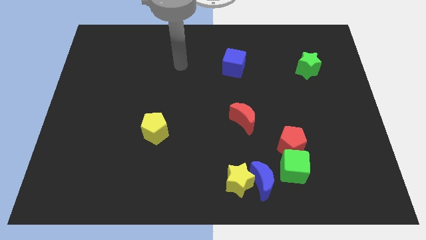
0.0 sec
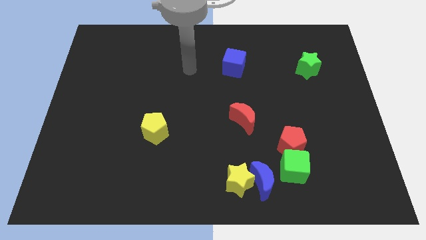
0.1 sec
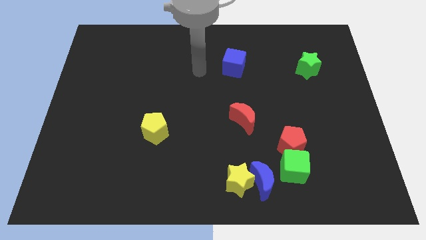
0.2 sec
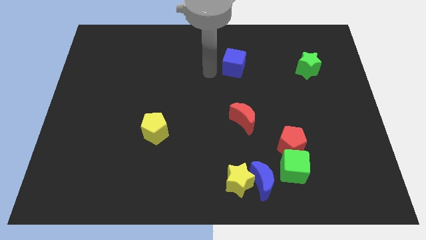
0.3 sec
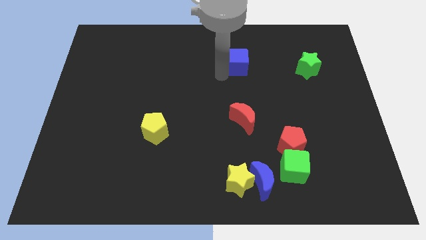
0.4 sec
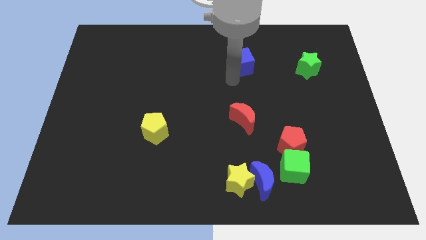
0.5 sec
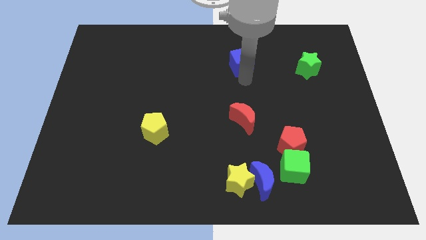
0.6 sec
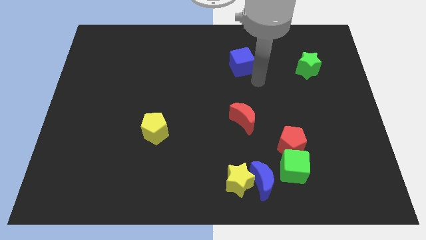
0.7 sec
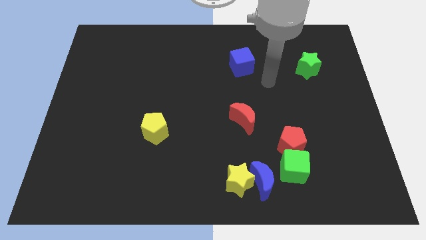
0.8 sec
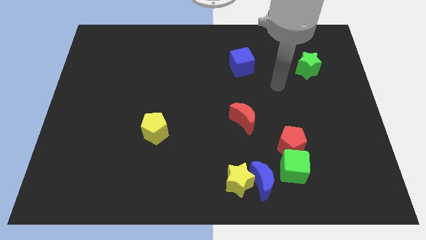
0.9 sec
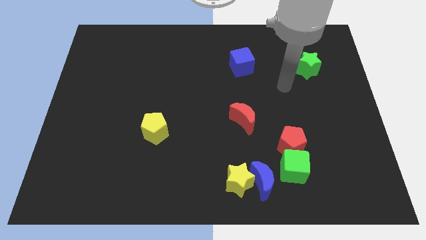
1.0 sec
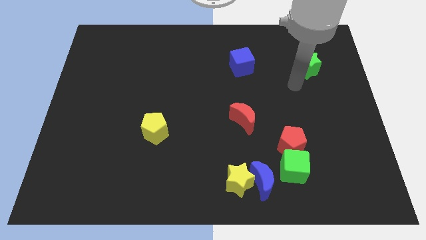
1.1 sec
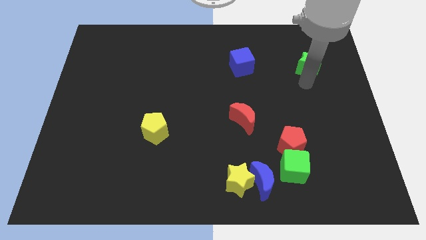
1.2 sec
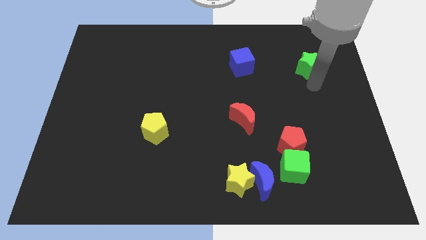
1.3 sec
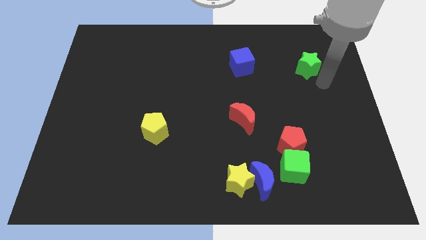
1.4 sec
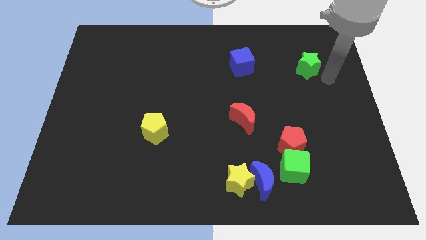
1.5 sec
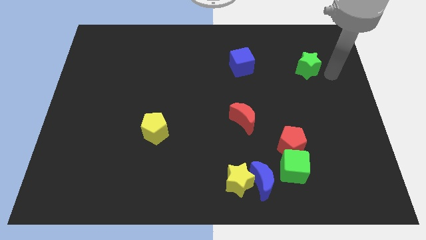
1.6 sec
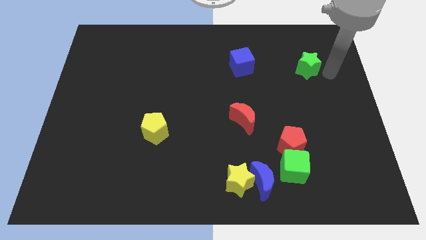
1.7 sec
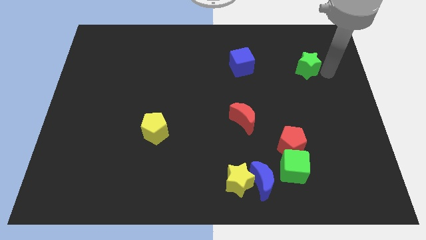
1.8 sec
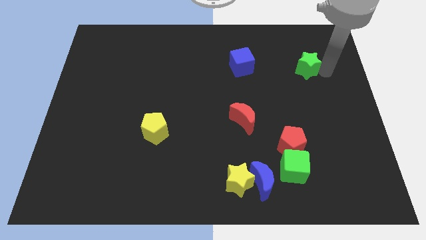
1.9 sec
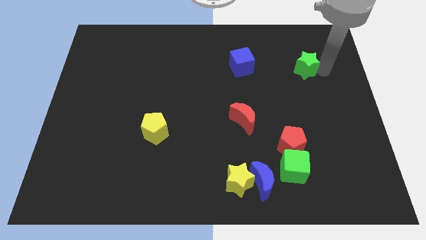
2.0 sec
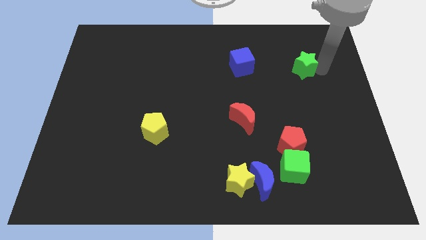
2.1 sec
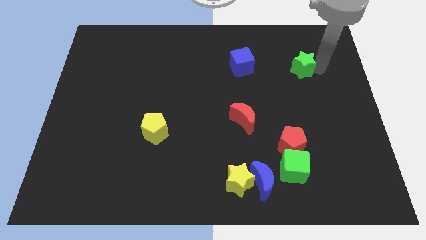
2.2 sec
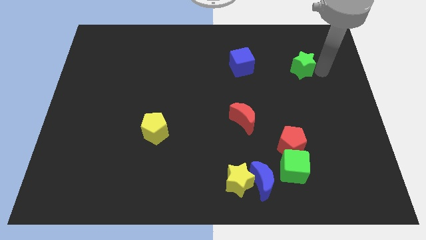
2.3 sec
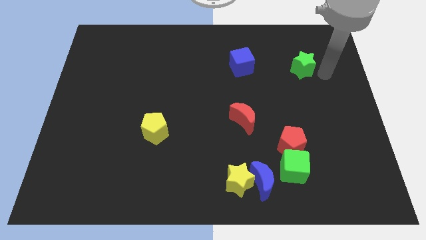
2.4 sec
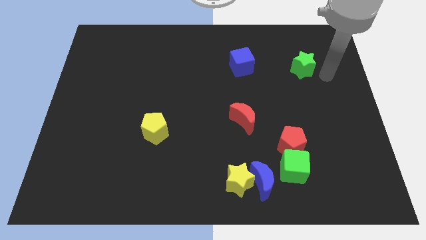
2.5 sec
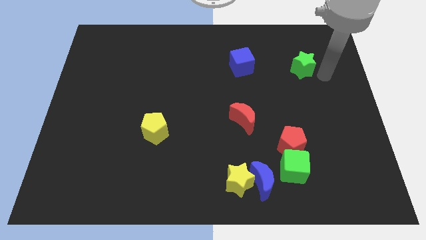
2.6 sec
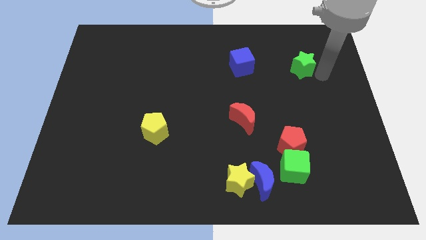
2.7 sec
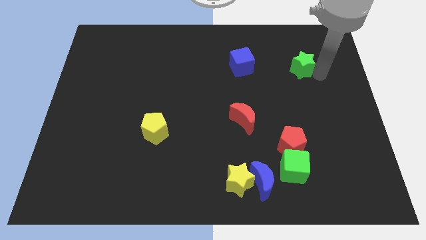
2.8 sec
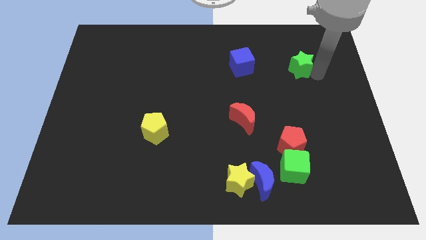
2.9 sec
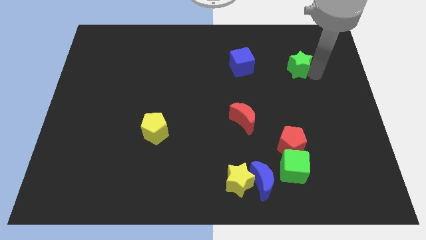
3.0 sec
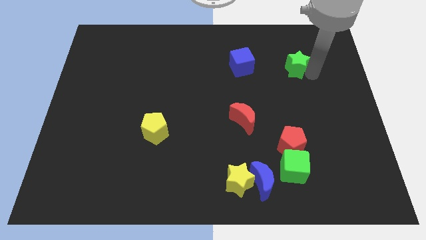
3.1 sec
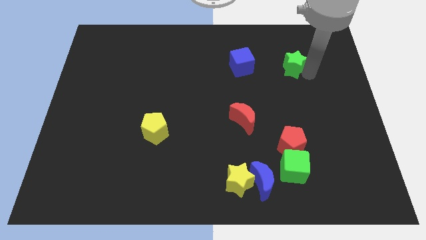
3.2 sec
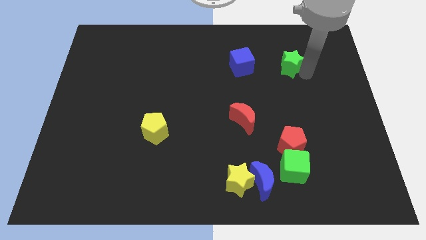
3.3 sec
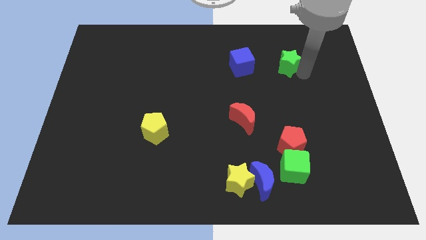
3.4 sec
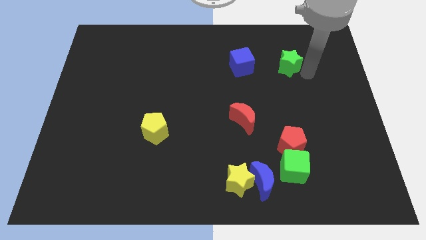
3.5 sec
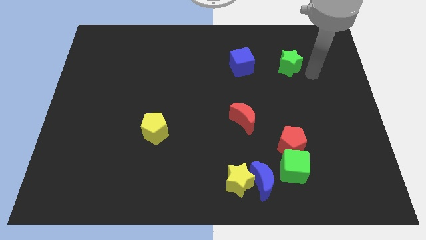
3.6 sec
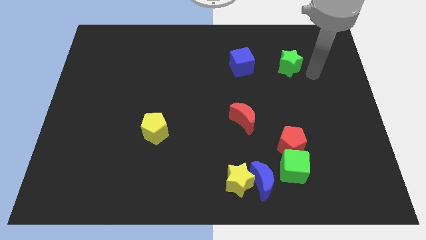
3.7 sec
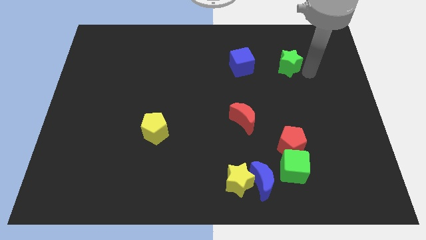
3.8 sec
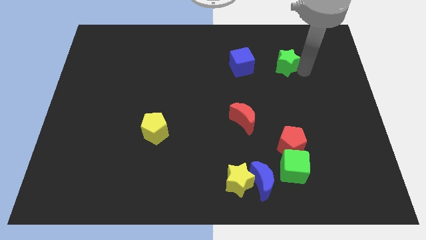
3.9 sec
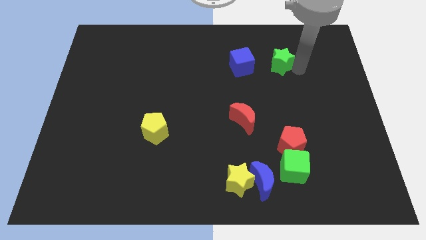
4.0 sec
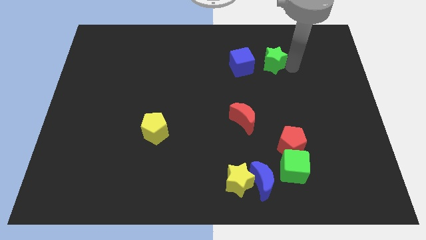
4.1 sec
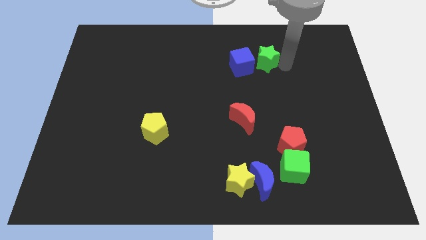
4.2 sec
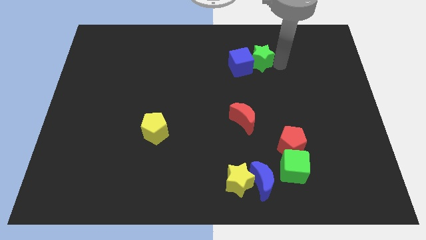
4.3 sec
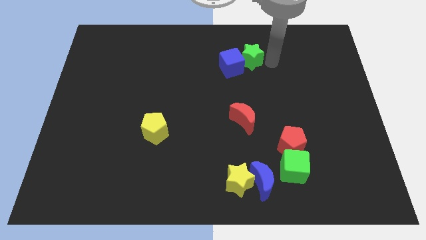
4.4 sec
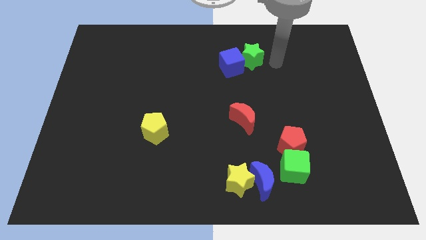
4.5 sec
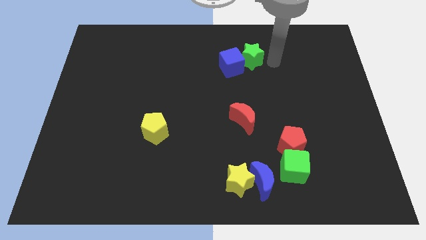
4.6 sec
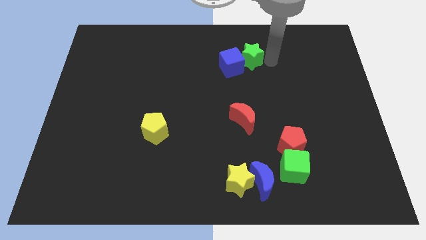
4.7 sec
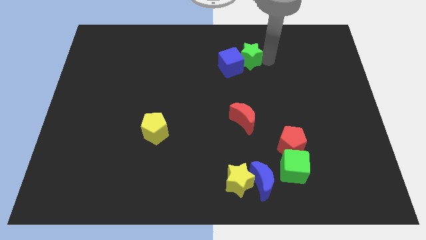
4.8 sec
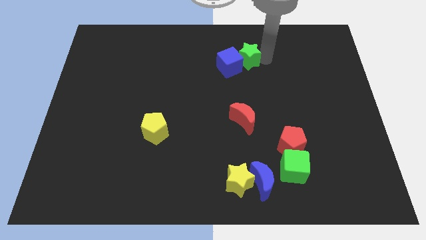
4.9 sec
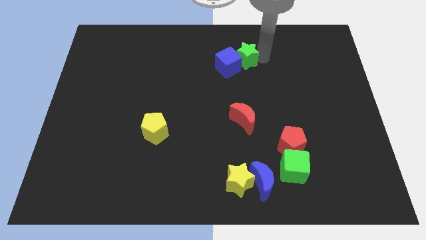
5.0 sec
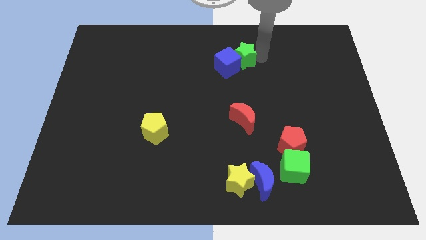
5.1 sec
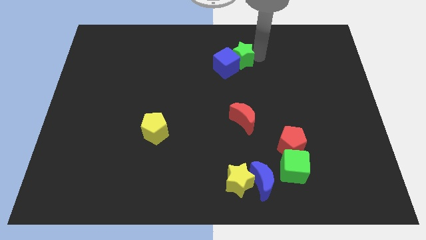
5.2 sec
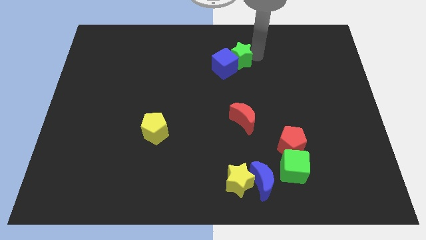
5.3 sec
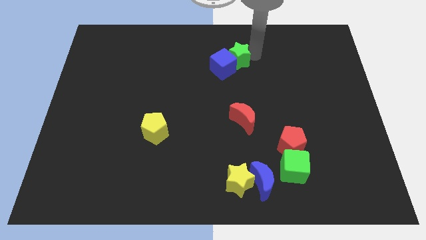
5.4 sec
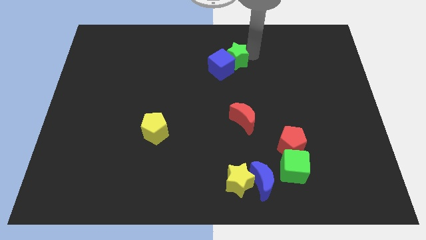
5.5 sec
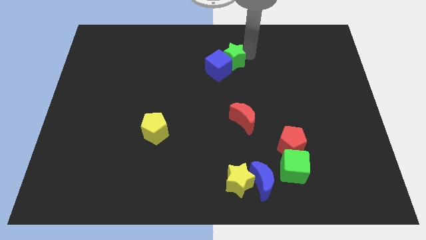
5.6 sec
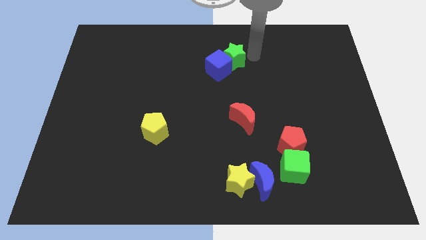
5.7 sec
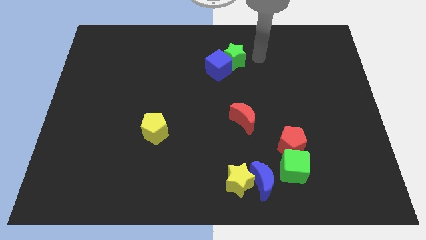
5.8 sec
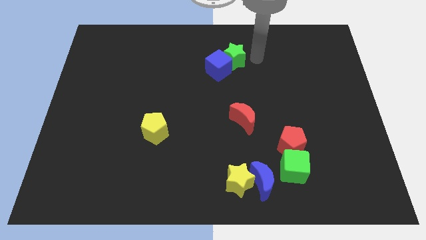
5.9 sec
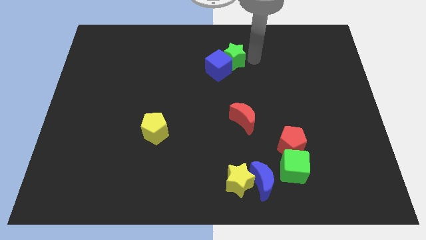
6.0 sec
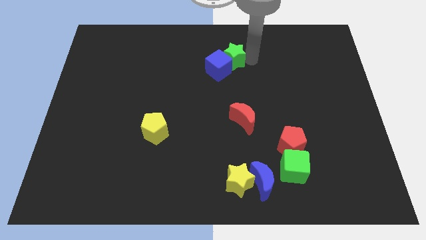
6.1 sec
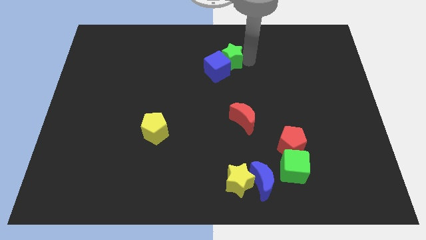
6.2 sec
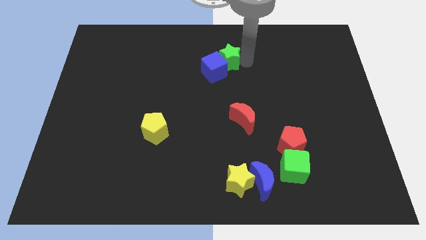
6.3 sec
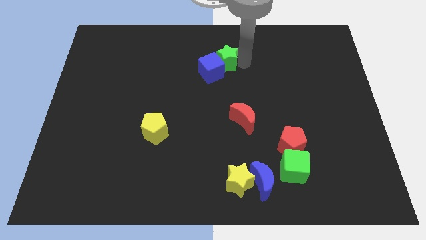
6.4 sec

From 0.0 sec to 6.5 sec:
push the green star to the left

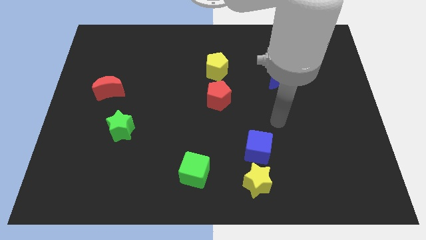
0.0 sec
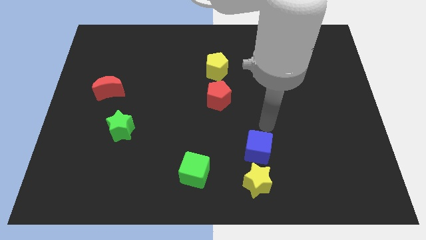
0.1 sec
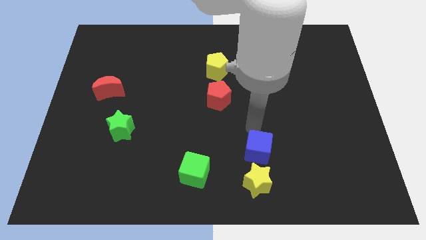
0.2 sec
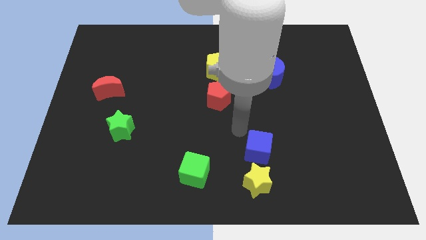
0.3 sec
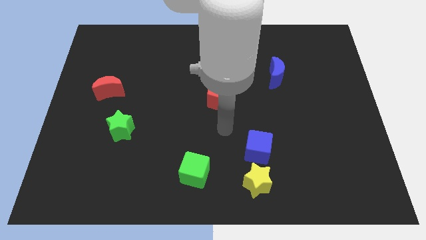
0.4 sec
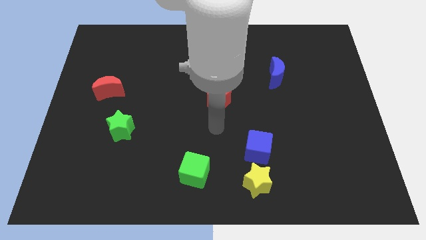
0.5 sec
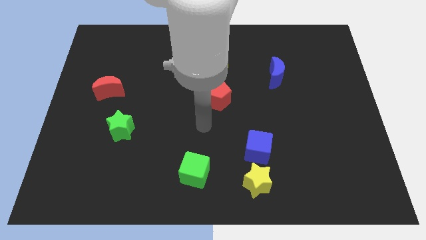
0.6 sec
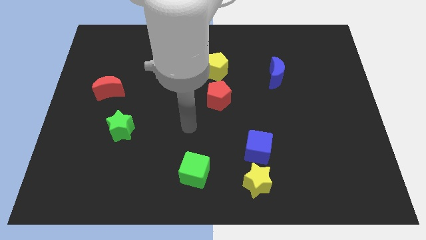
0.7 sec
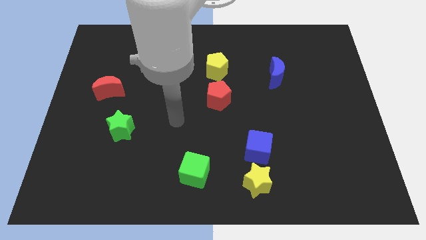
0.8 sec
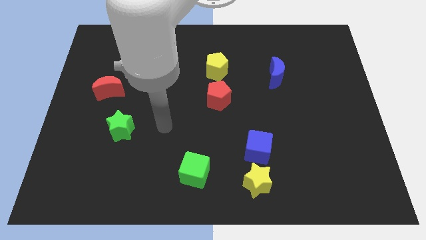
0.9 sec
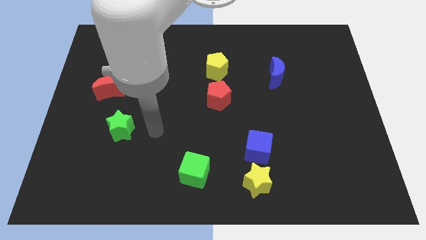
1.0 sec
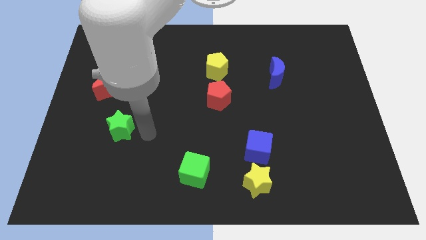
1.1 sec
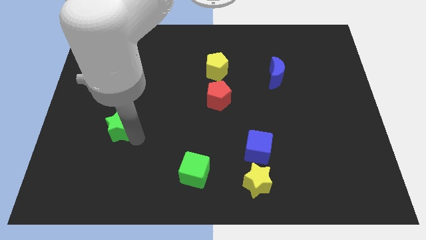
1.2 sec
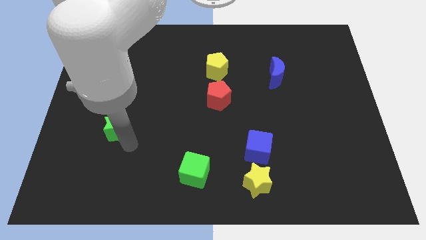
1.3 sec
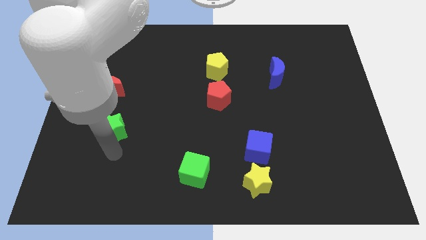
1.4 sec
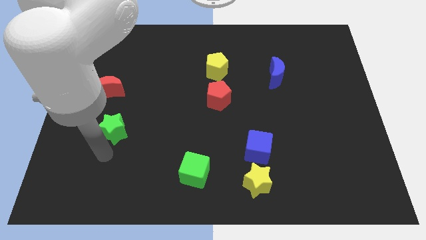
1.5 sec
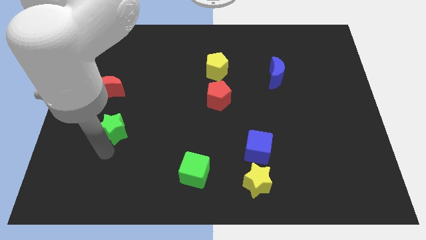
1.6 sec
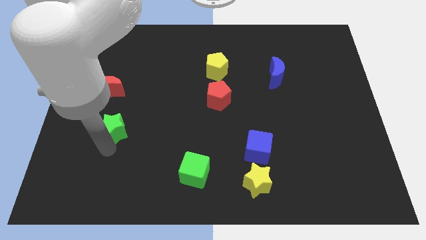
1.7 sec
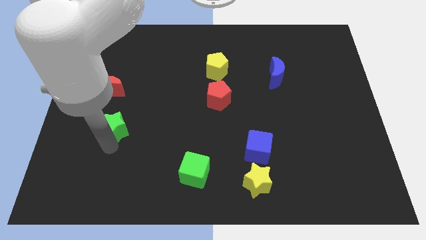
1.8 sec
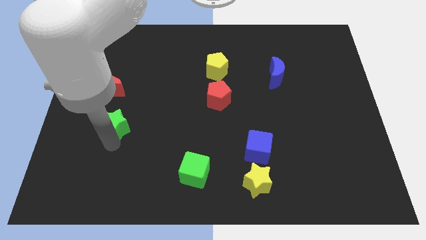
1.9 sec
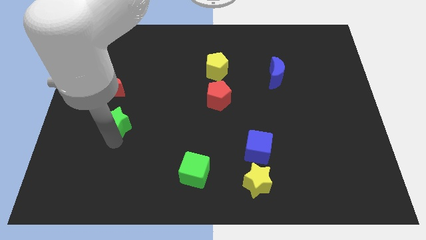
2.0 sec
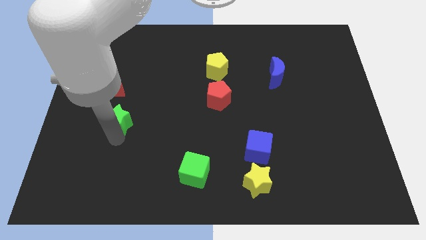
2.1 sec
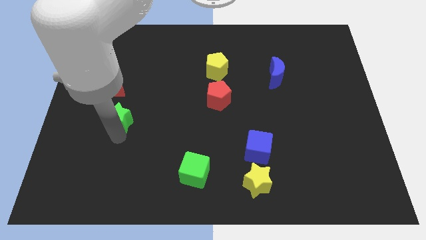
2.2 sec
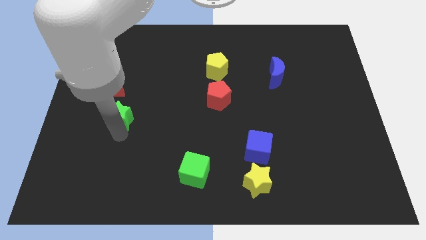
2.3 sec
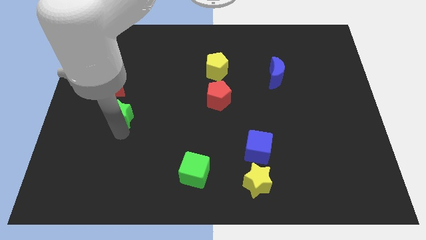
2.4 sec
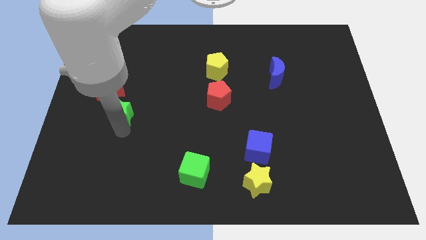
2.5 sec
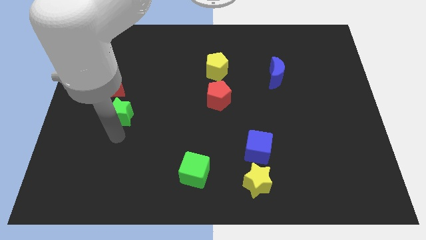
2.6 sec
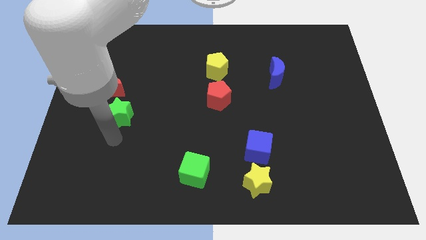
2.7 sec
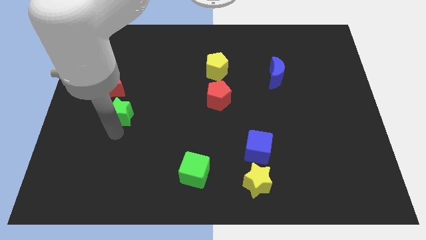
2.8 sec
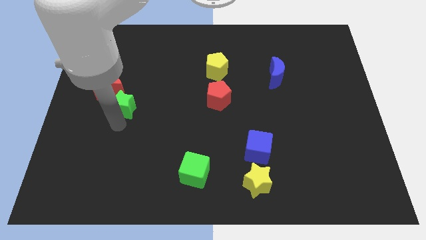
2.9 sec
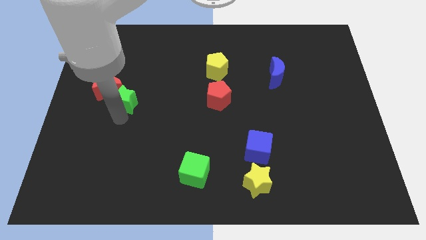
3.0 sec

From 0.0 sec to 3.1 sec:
slightly push the green star up
